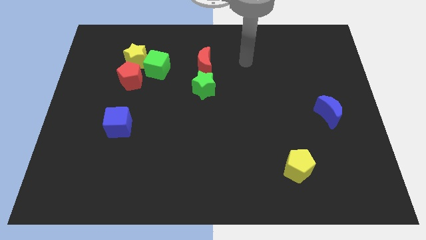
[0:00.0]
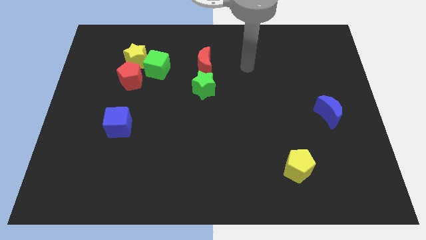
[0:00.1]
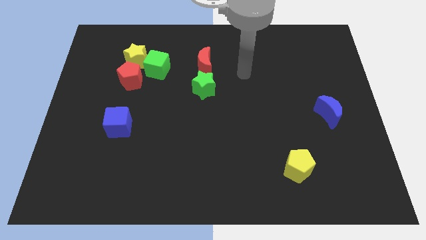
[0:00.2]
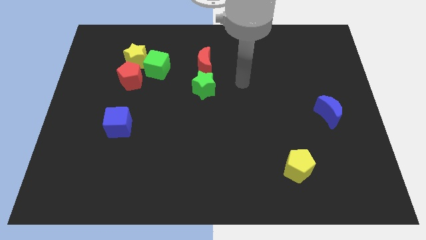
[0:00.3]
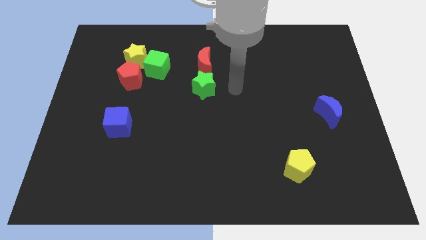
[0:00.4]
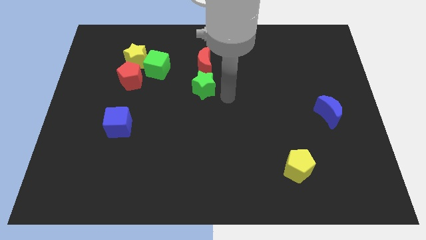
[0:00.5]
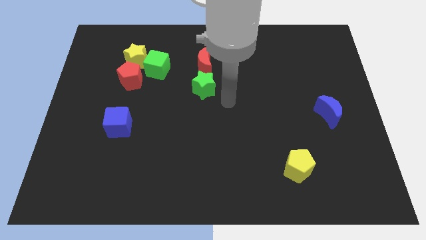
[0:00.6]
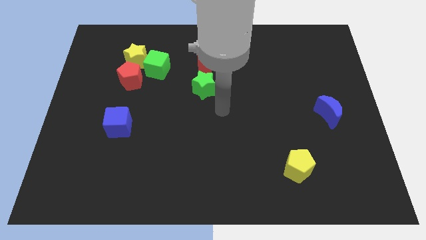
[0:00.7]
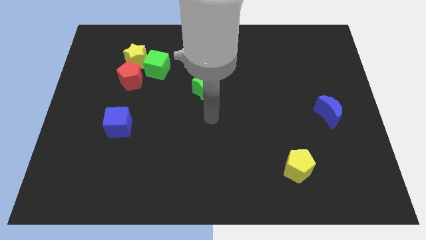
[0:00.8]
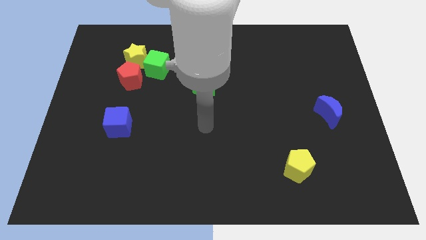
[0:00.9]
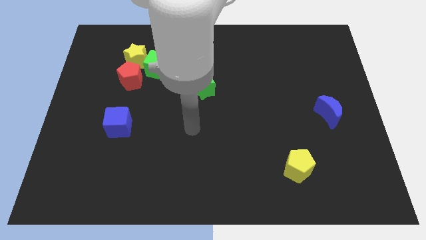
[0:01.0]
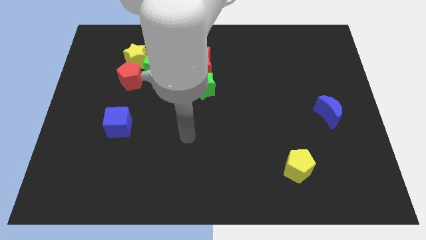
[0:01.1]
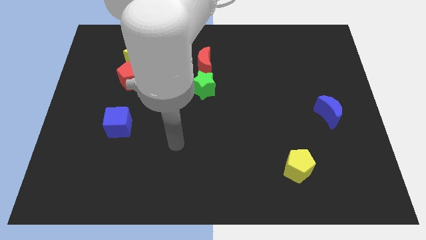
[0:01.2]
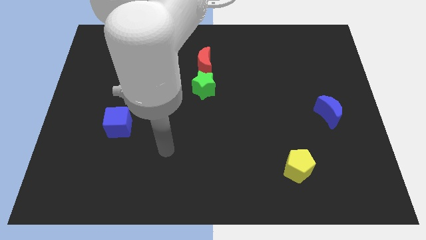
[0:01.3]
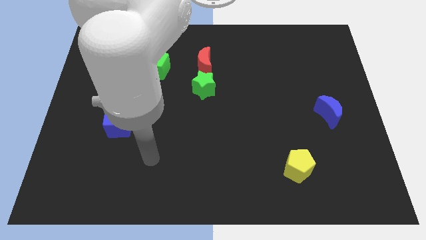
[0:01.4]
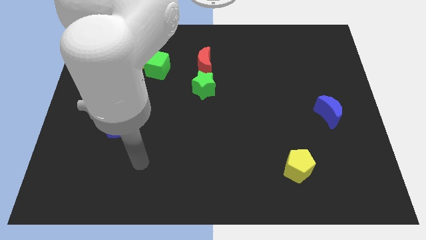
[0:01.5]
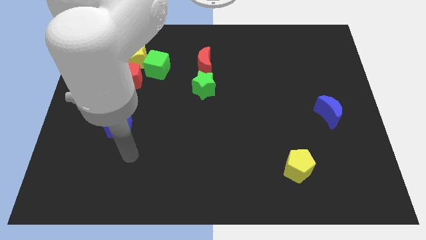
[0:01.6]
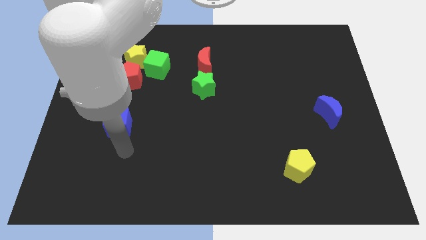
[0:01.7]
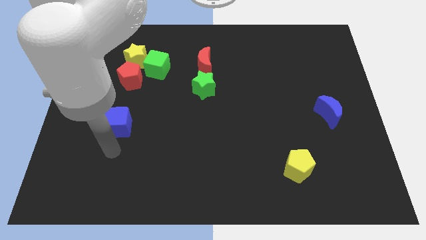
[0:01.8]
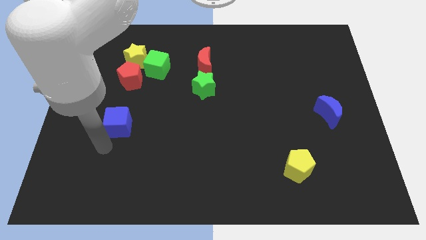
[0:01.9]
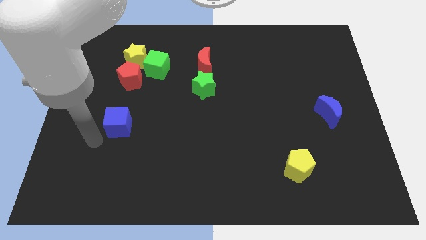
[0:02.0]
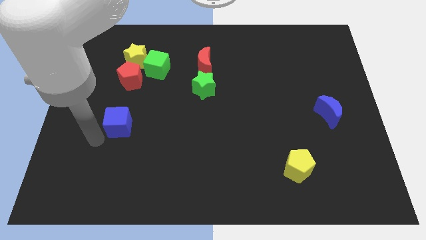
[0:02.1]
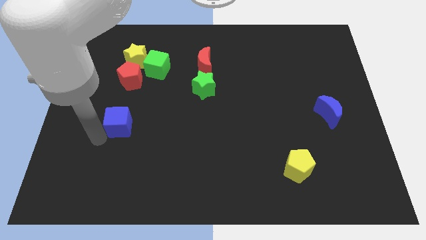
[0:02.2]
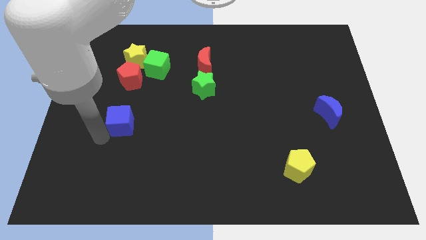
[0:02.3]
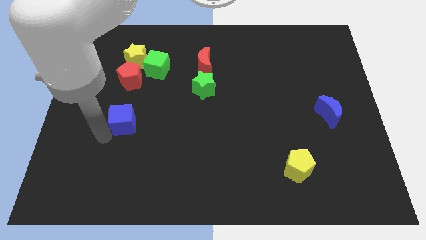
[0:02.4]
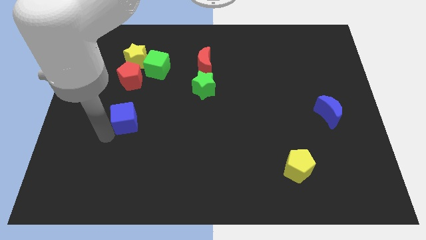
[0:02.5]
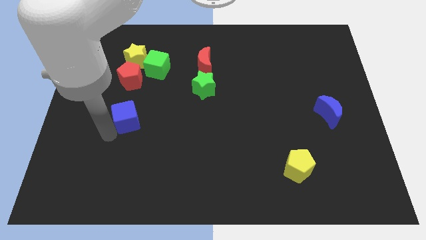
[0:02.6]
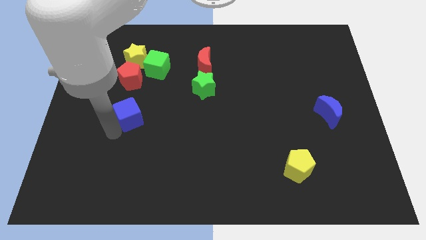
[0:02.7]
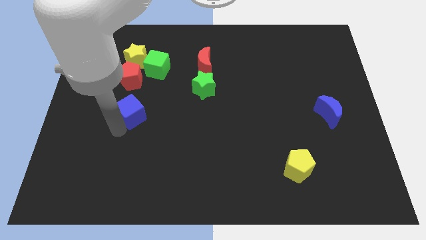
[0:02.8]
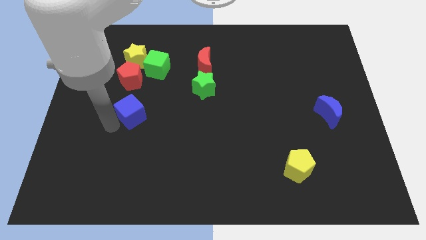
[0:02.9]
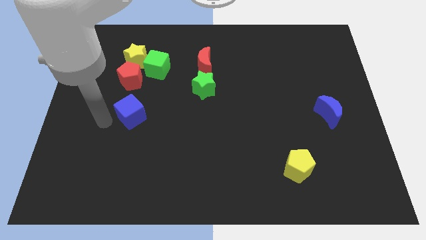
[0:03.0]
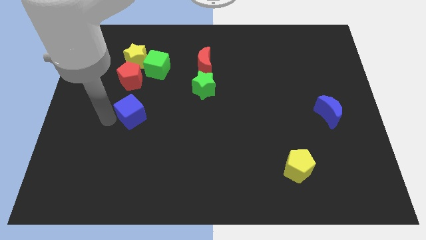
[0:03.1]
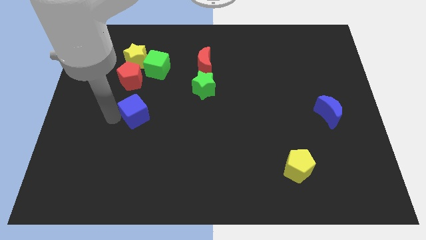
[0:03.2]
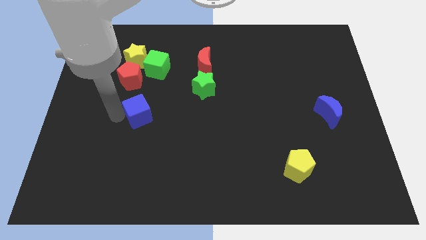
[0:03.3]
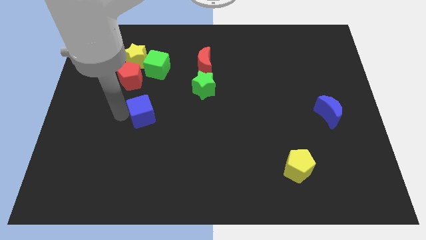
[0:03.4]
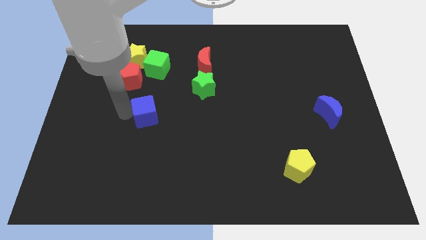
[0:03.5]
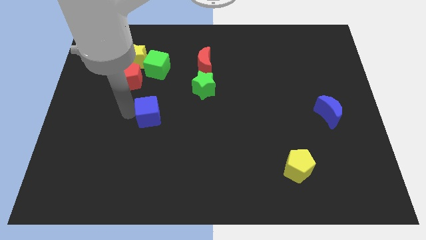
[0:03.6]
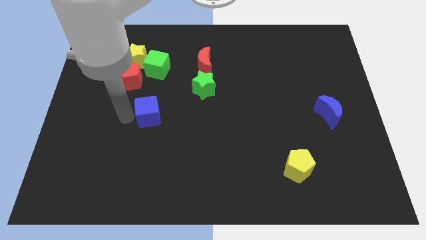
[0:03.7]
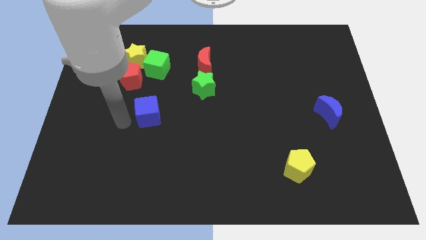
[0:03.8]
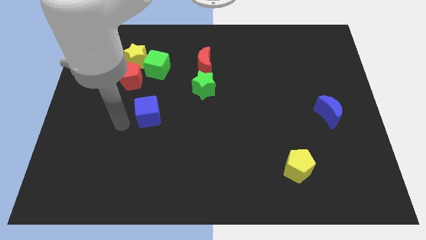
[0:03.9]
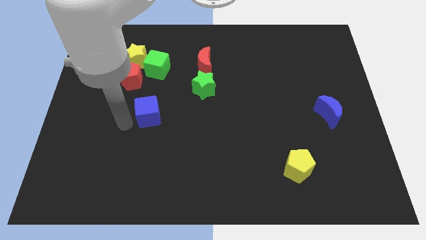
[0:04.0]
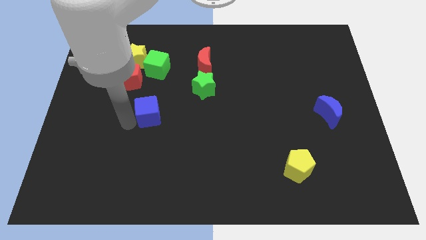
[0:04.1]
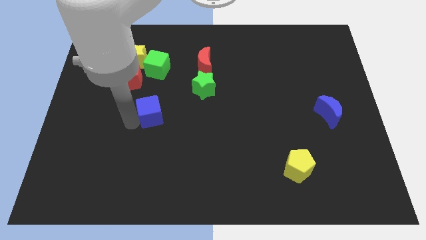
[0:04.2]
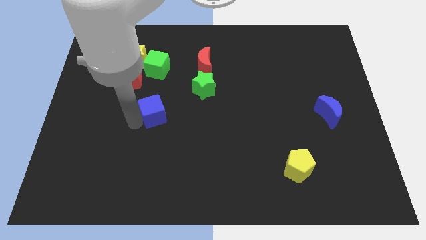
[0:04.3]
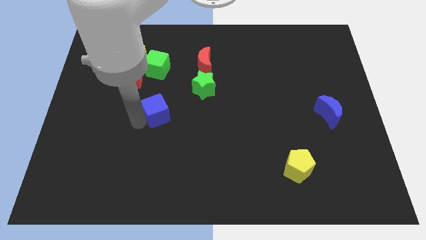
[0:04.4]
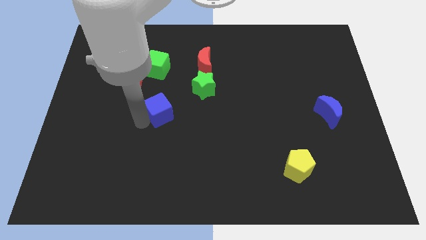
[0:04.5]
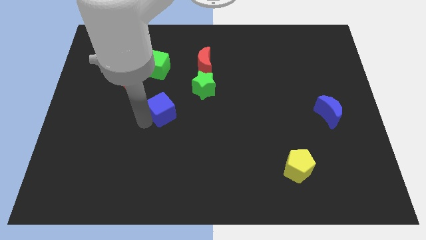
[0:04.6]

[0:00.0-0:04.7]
move the blue cube to the center

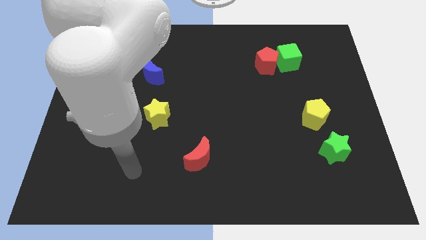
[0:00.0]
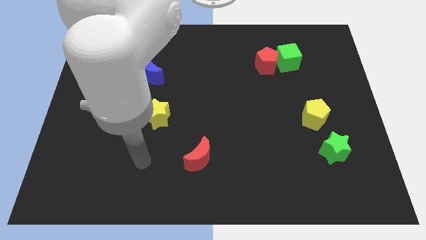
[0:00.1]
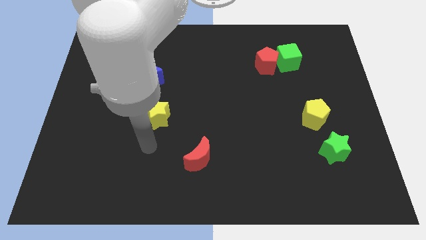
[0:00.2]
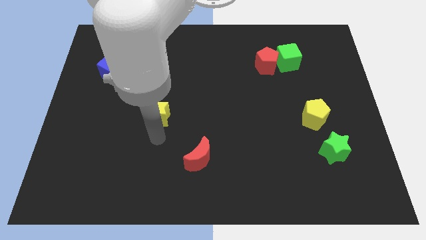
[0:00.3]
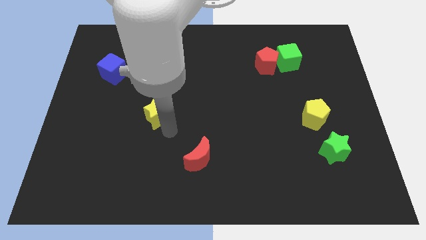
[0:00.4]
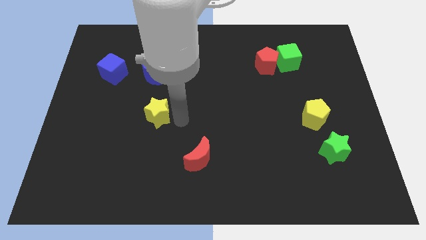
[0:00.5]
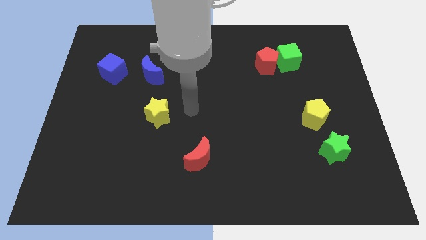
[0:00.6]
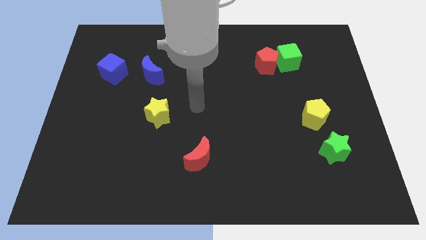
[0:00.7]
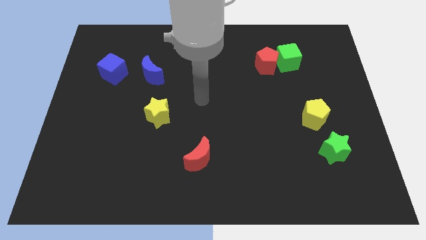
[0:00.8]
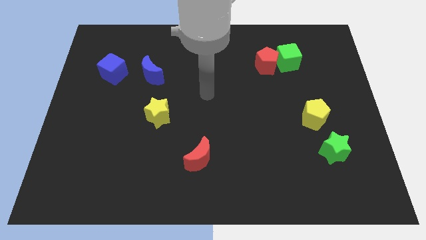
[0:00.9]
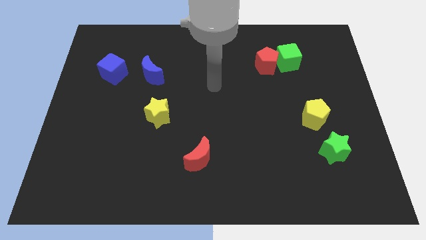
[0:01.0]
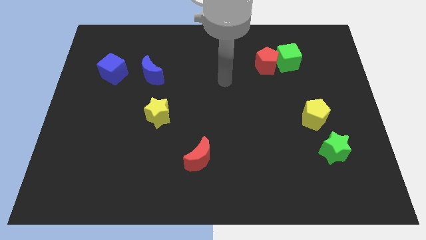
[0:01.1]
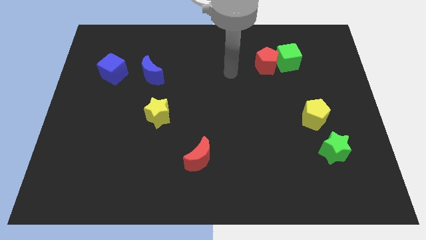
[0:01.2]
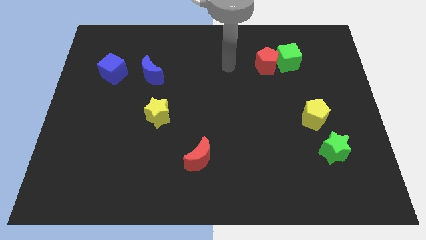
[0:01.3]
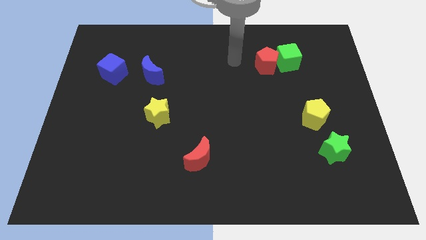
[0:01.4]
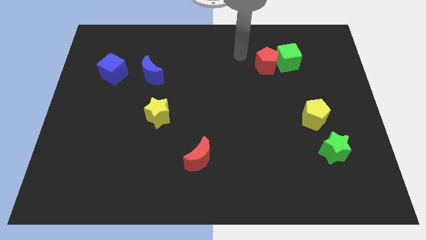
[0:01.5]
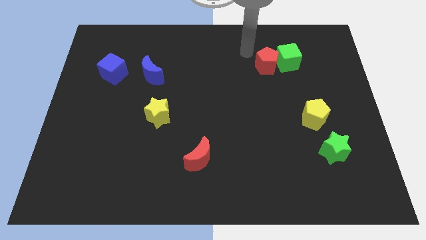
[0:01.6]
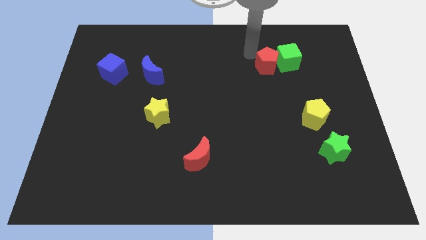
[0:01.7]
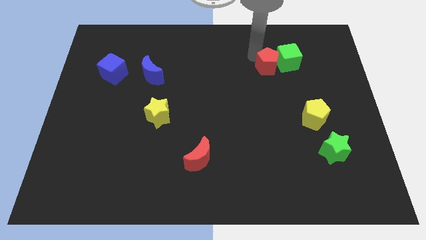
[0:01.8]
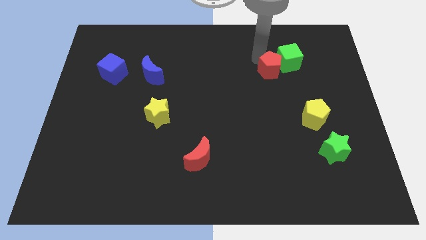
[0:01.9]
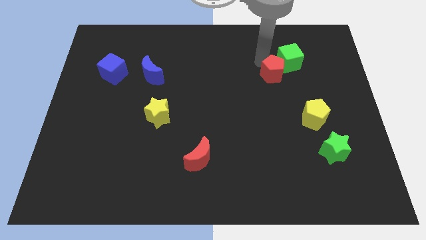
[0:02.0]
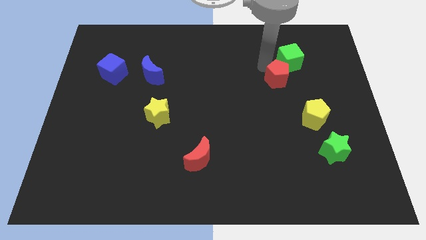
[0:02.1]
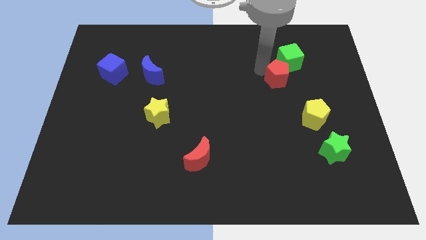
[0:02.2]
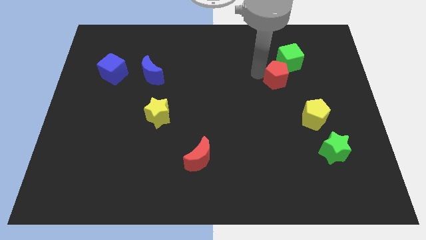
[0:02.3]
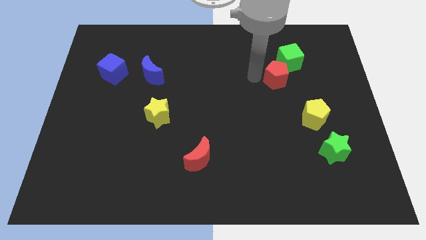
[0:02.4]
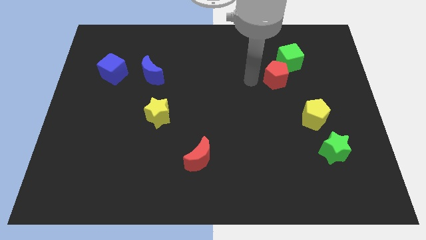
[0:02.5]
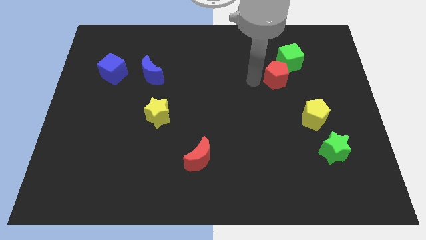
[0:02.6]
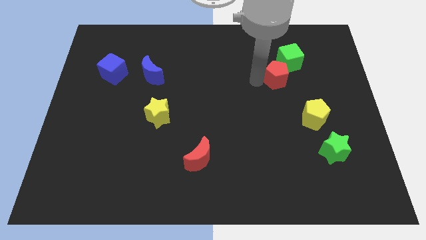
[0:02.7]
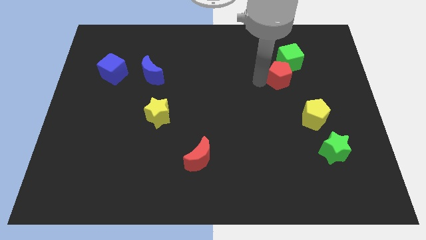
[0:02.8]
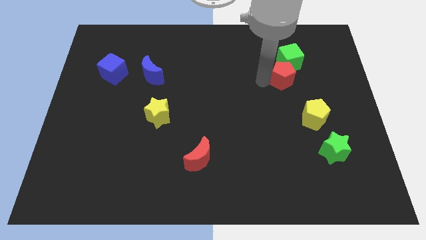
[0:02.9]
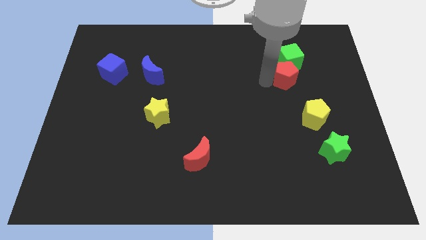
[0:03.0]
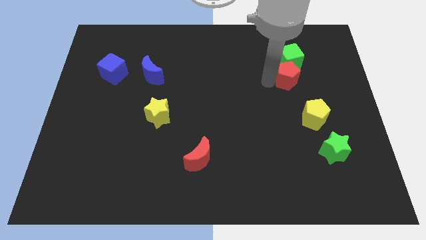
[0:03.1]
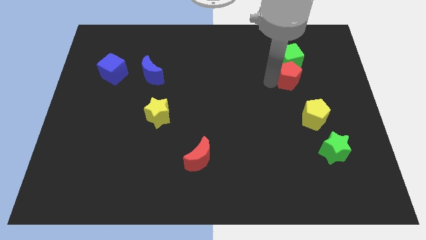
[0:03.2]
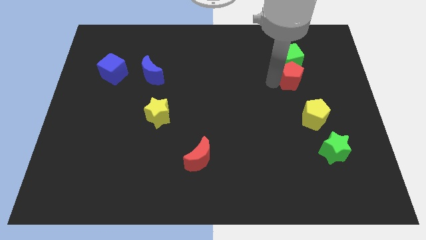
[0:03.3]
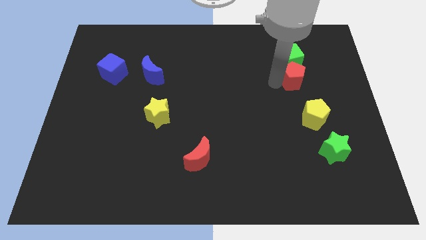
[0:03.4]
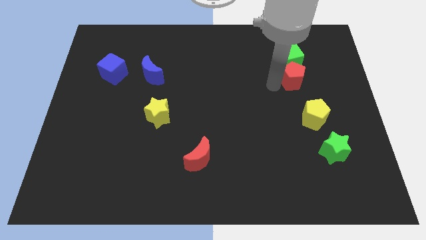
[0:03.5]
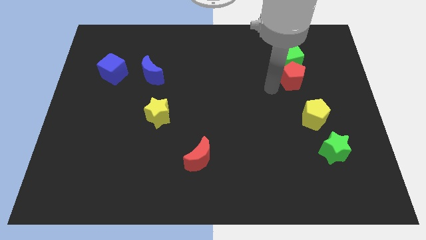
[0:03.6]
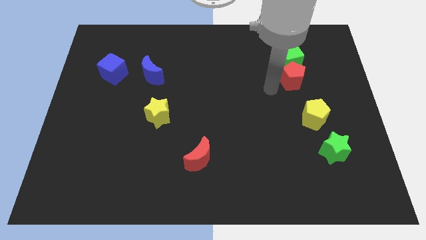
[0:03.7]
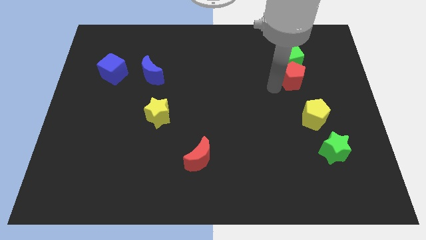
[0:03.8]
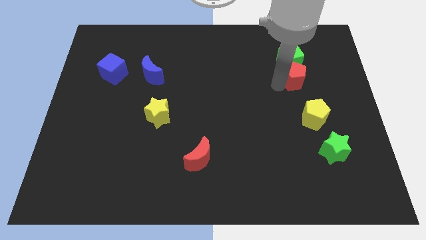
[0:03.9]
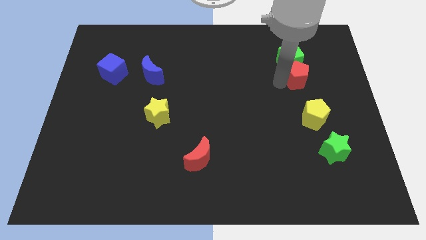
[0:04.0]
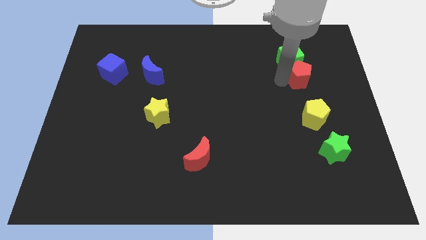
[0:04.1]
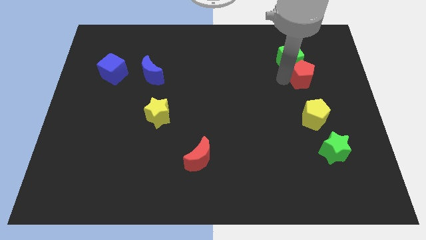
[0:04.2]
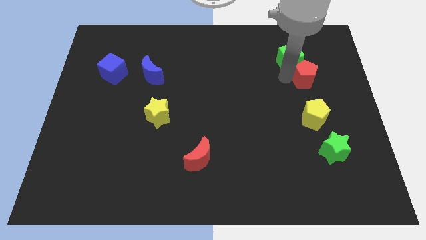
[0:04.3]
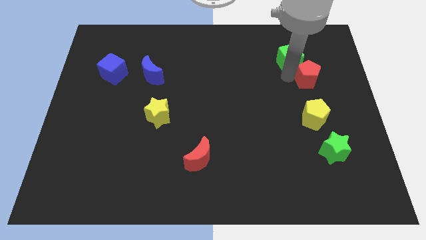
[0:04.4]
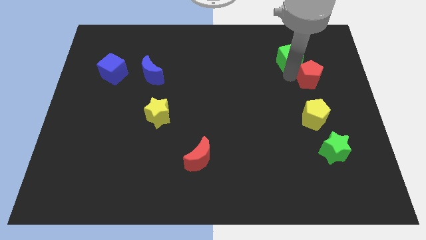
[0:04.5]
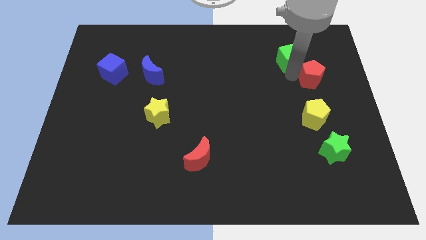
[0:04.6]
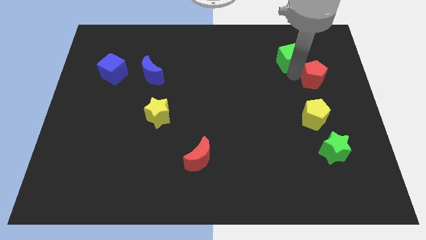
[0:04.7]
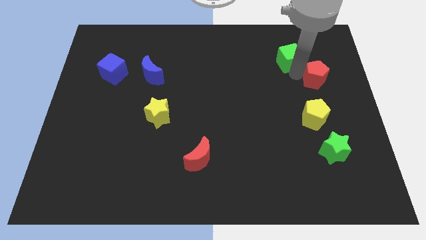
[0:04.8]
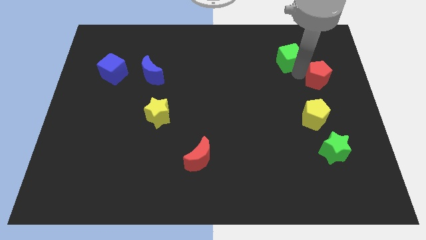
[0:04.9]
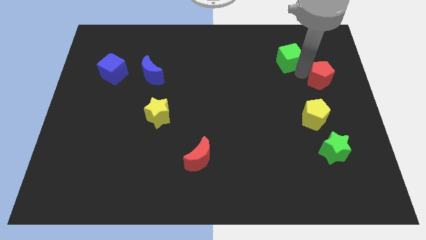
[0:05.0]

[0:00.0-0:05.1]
slide the red pentagon to the center right
